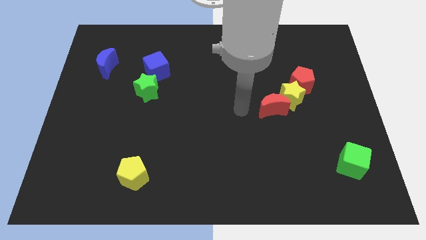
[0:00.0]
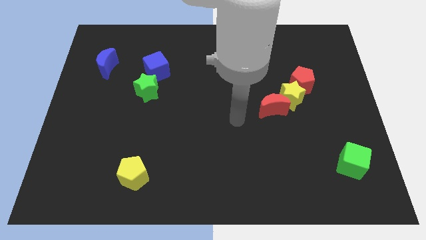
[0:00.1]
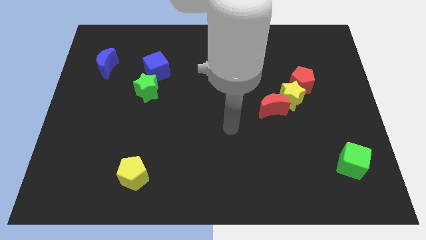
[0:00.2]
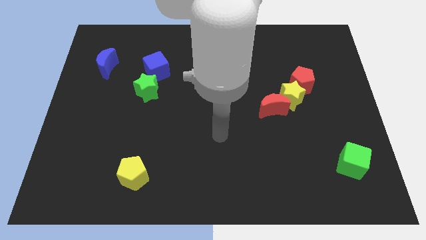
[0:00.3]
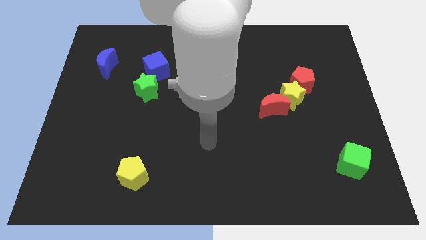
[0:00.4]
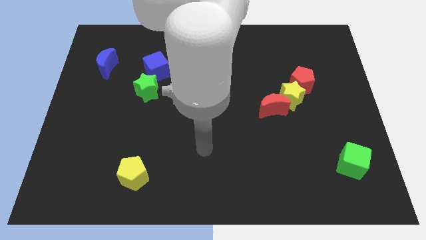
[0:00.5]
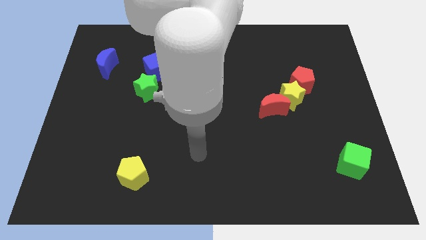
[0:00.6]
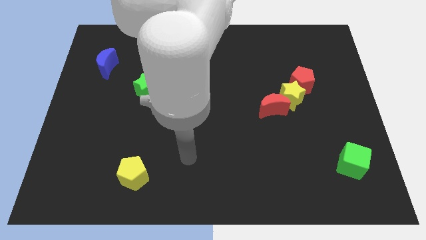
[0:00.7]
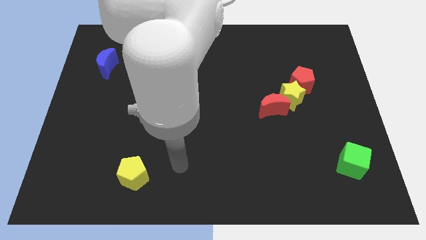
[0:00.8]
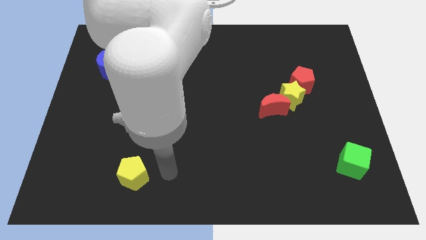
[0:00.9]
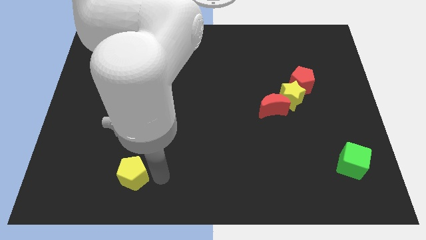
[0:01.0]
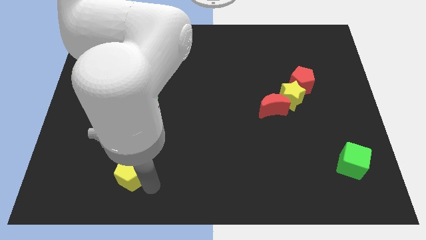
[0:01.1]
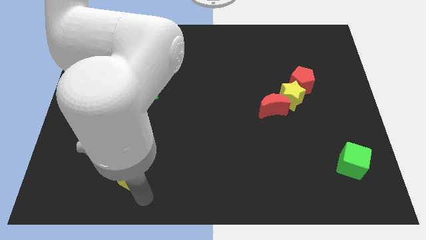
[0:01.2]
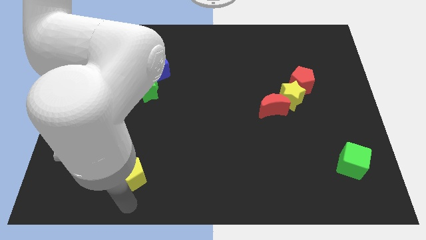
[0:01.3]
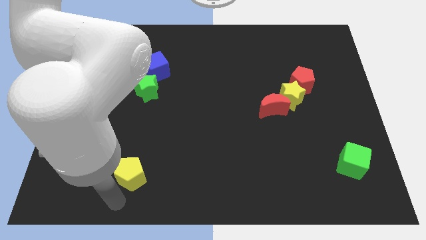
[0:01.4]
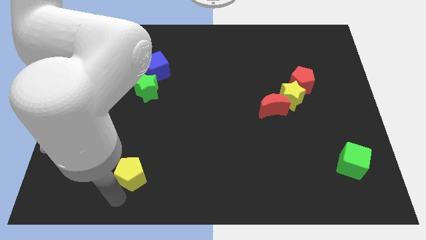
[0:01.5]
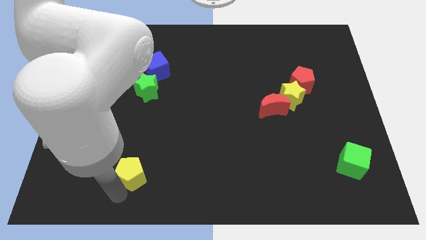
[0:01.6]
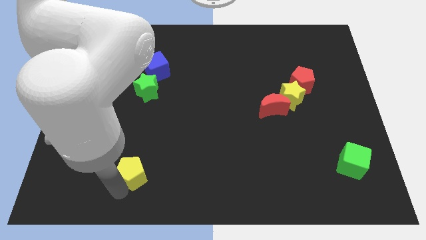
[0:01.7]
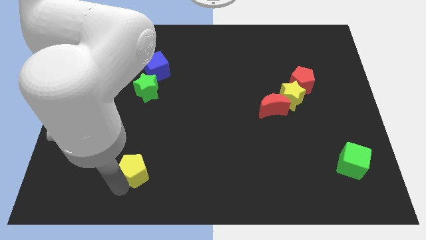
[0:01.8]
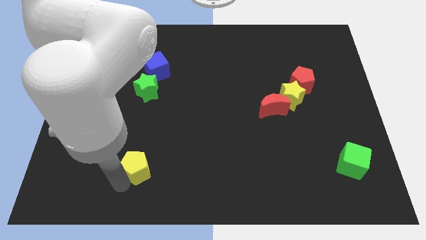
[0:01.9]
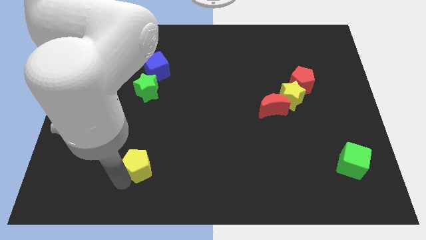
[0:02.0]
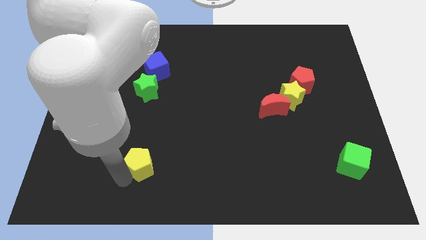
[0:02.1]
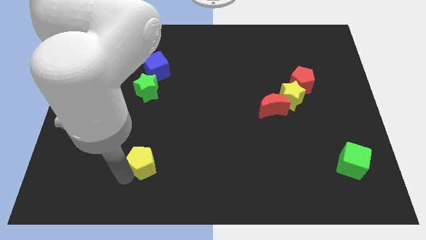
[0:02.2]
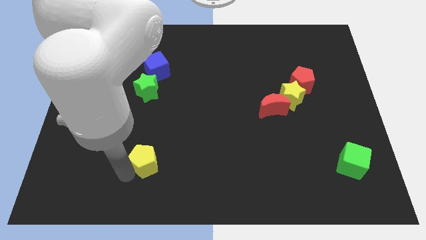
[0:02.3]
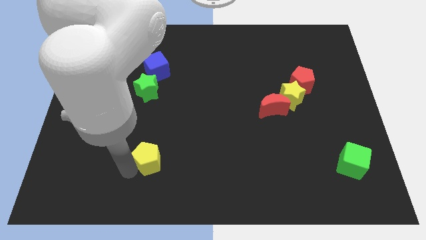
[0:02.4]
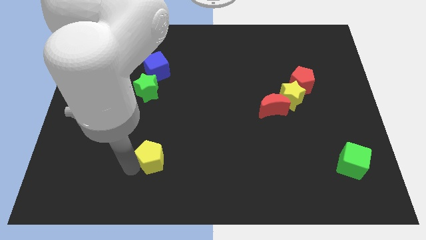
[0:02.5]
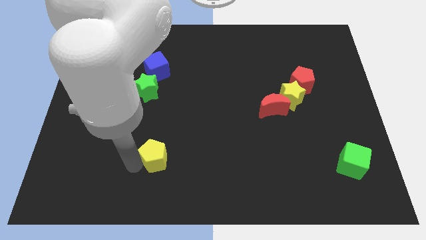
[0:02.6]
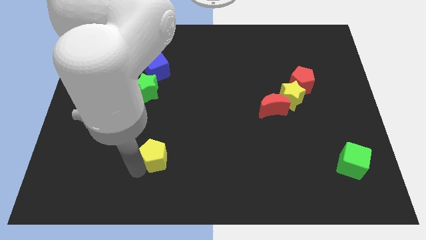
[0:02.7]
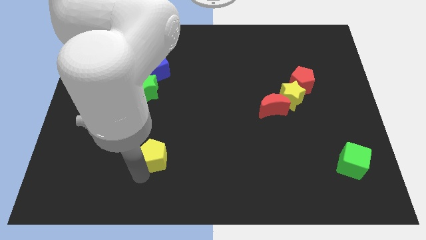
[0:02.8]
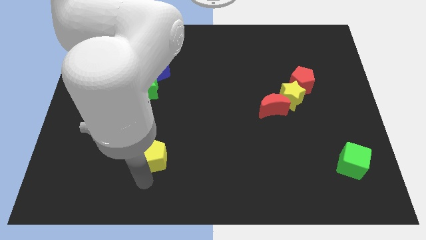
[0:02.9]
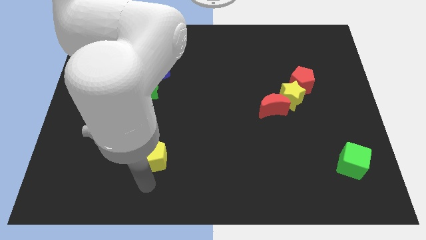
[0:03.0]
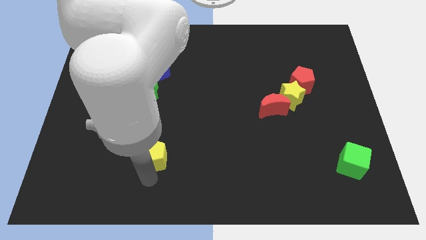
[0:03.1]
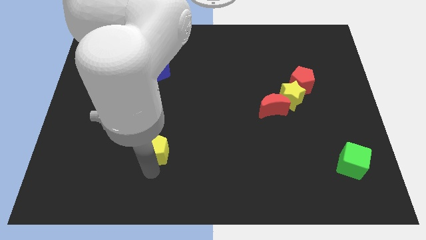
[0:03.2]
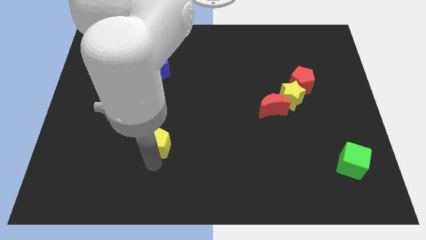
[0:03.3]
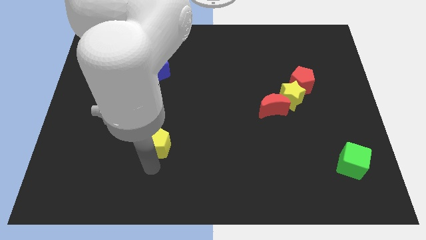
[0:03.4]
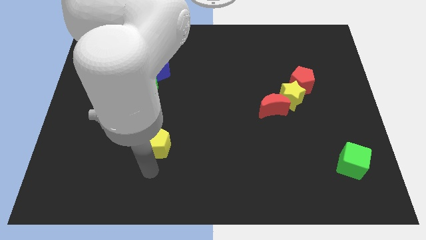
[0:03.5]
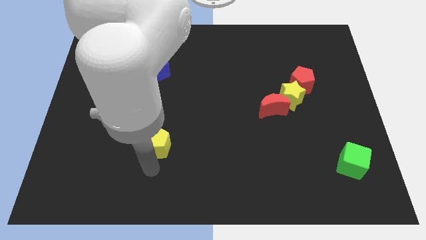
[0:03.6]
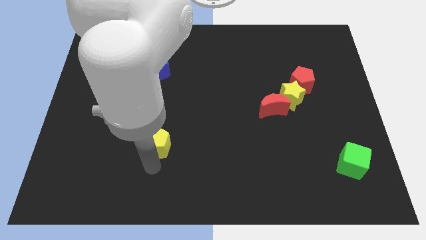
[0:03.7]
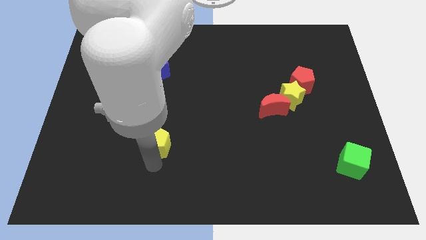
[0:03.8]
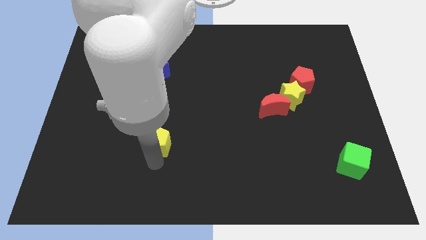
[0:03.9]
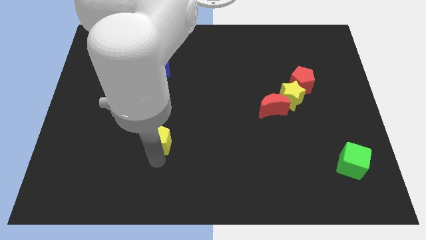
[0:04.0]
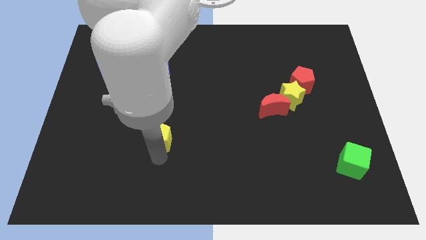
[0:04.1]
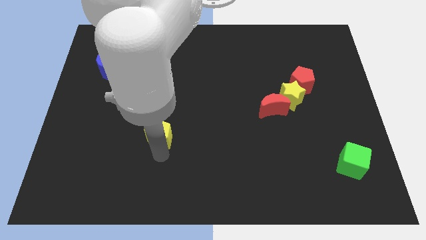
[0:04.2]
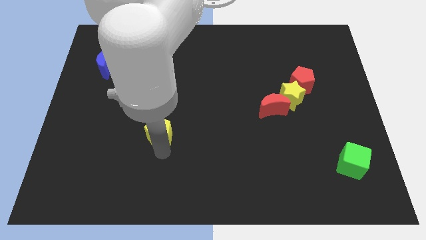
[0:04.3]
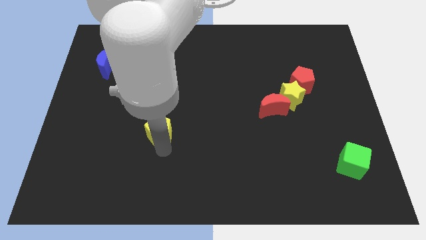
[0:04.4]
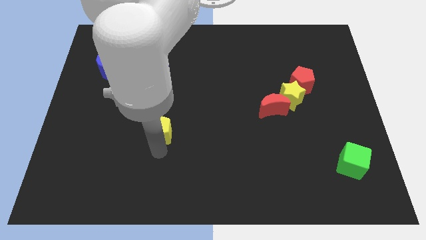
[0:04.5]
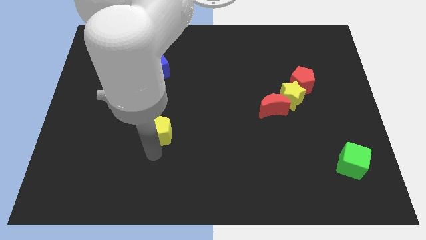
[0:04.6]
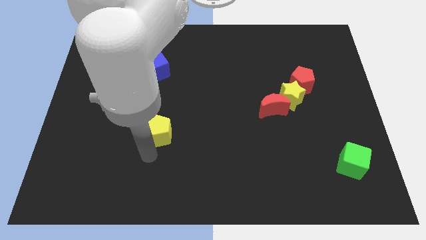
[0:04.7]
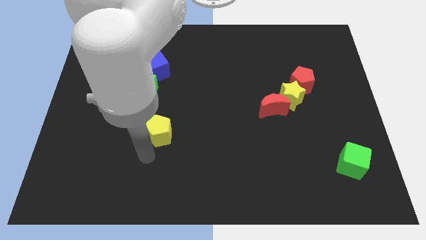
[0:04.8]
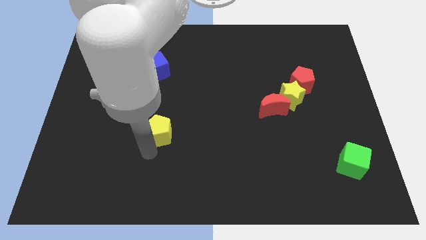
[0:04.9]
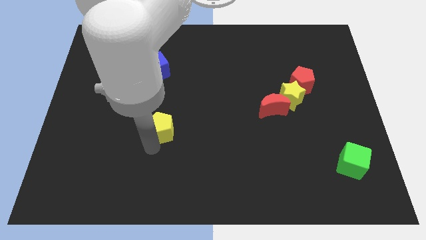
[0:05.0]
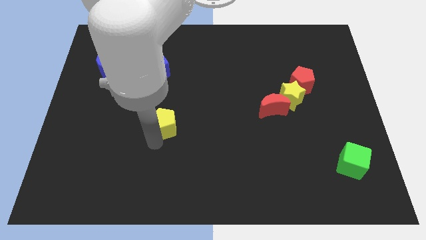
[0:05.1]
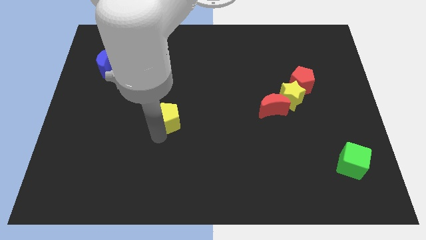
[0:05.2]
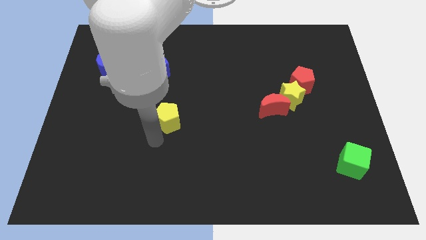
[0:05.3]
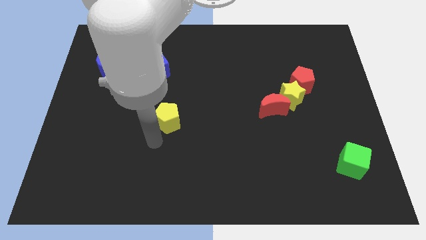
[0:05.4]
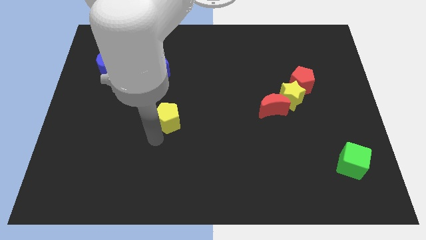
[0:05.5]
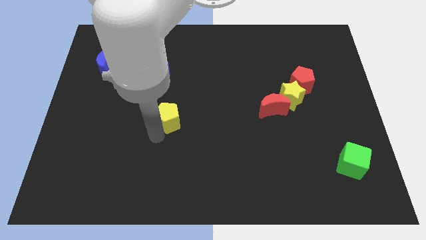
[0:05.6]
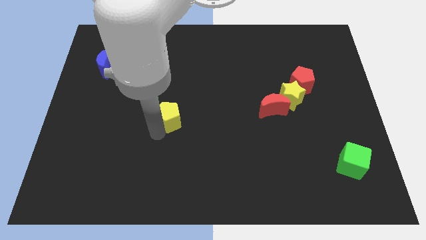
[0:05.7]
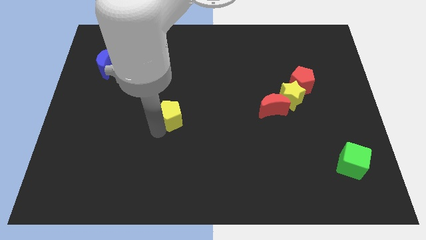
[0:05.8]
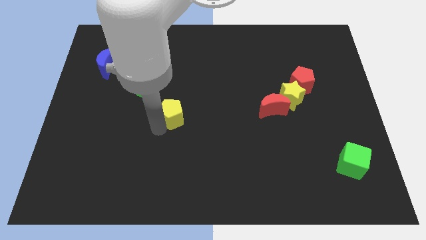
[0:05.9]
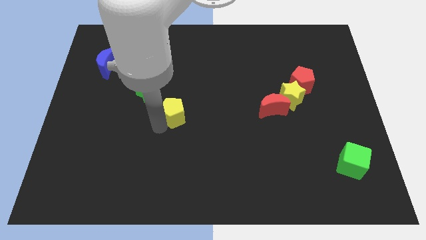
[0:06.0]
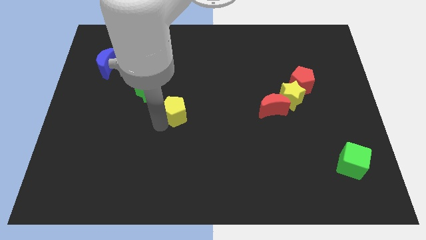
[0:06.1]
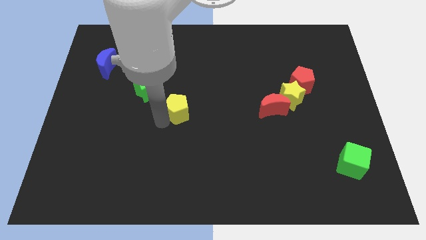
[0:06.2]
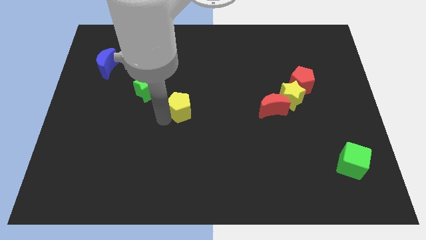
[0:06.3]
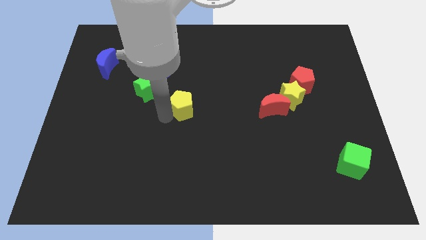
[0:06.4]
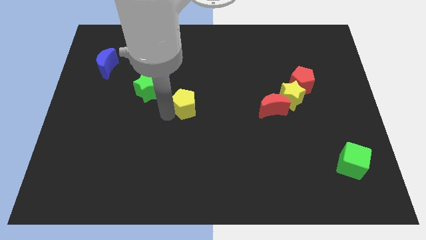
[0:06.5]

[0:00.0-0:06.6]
put the yellow pentagon to the right side of the green star

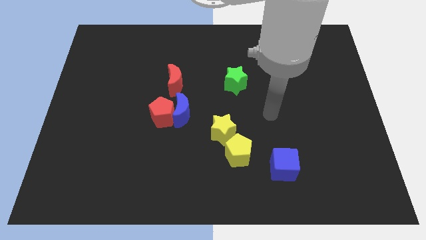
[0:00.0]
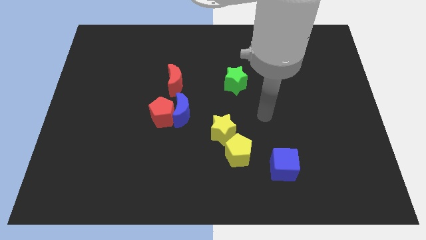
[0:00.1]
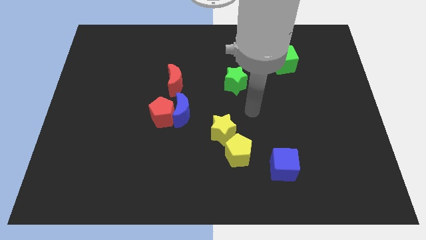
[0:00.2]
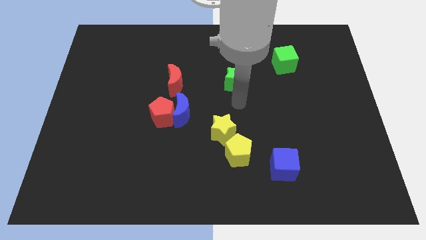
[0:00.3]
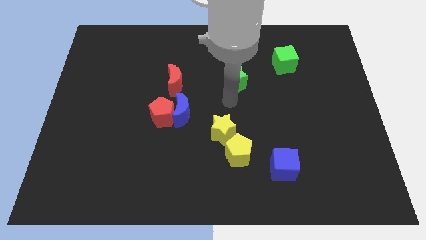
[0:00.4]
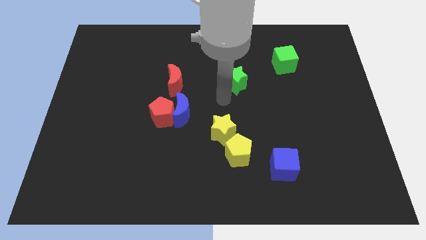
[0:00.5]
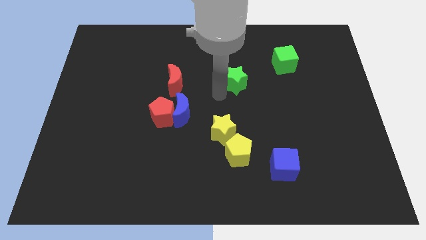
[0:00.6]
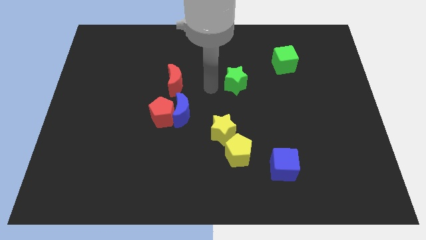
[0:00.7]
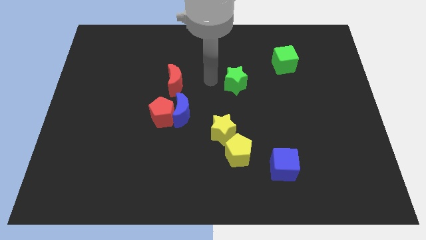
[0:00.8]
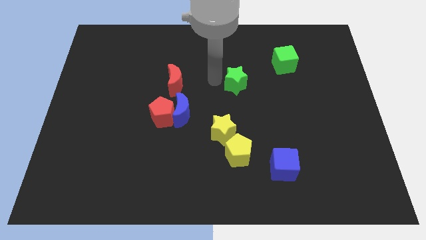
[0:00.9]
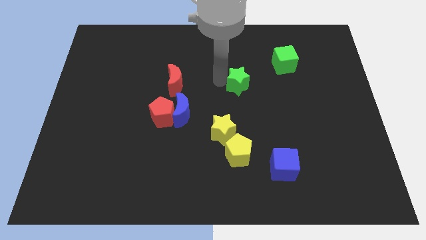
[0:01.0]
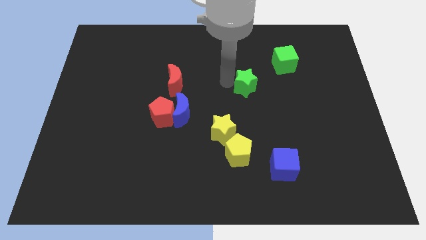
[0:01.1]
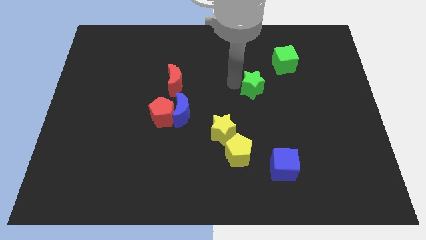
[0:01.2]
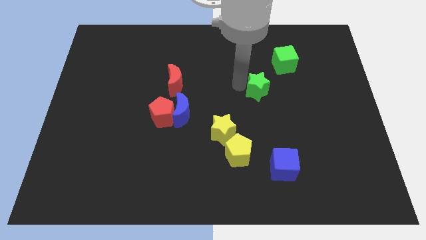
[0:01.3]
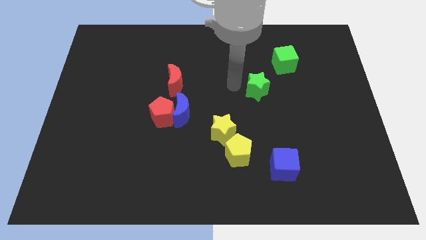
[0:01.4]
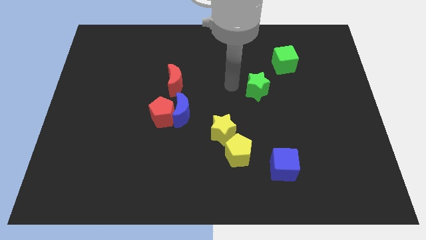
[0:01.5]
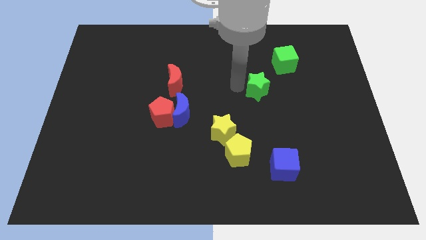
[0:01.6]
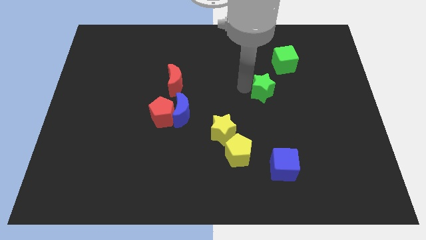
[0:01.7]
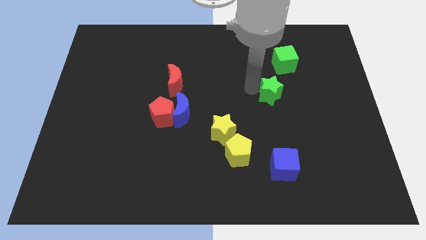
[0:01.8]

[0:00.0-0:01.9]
put the green star to the bottom side of the green cube
